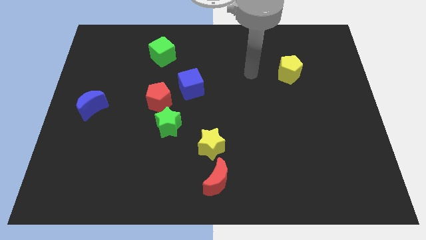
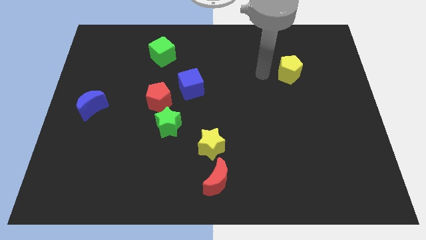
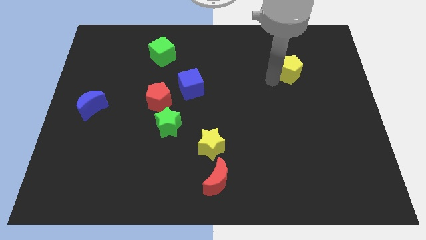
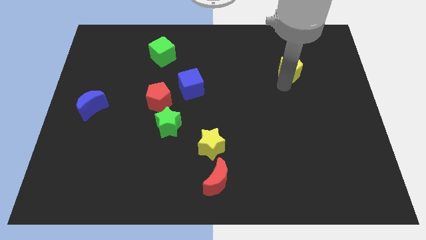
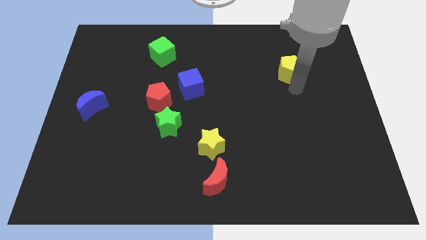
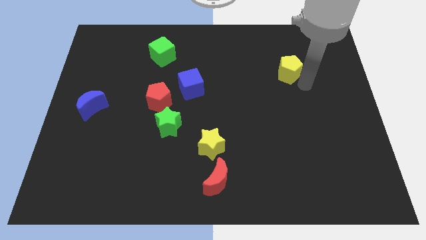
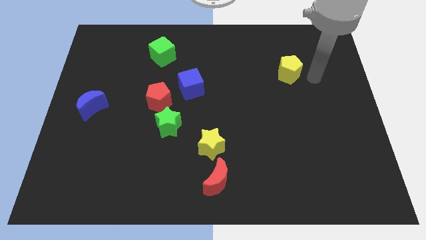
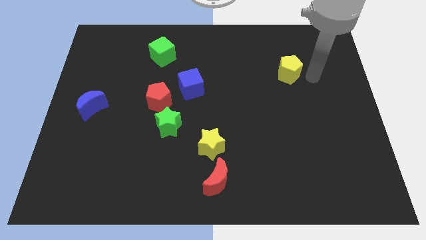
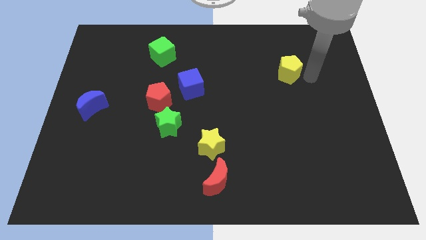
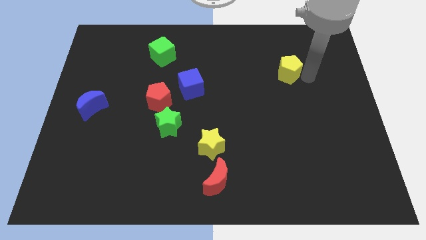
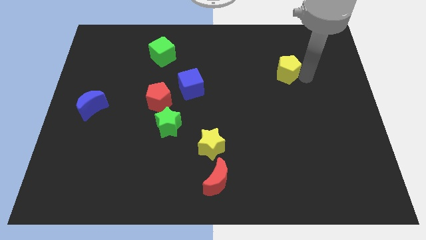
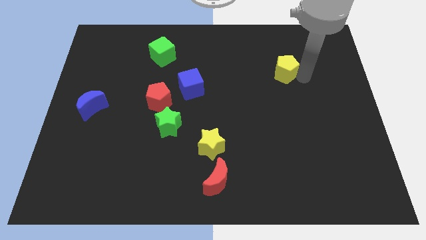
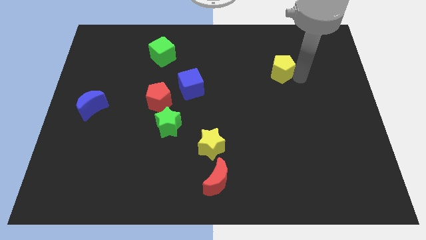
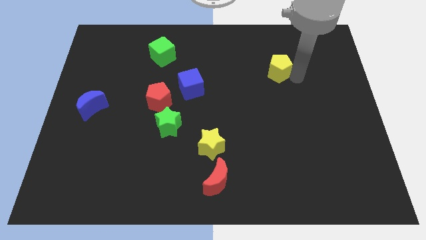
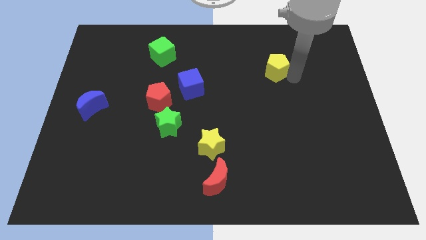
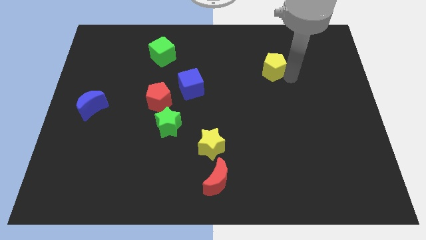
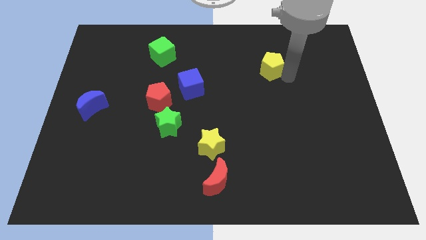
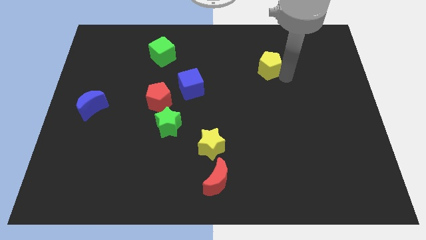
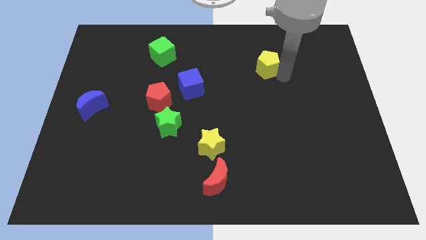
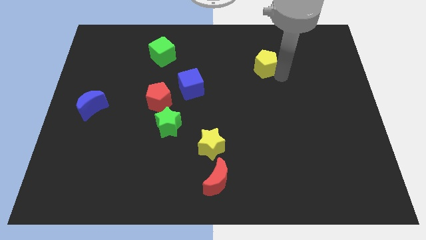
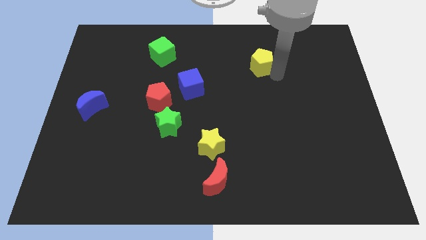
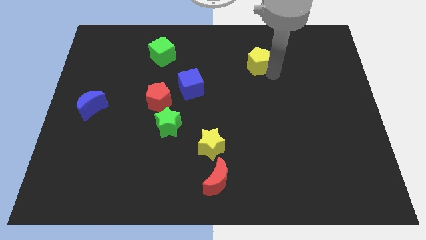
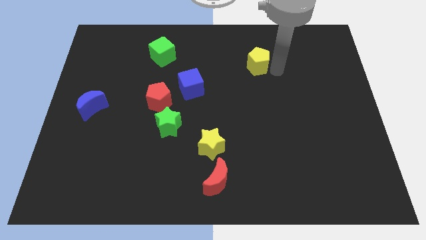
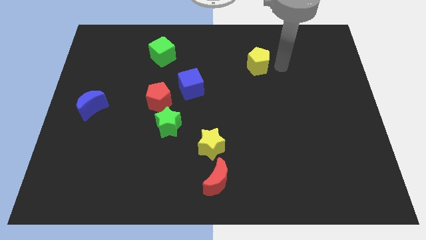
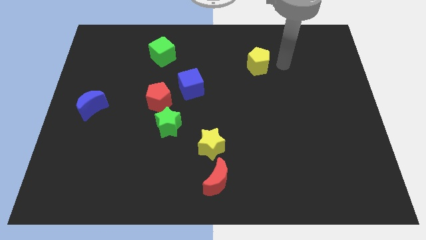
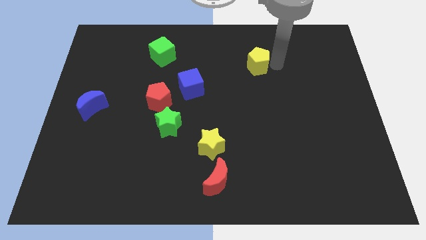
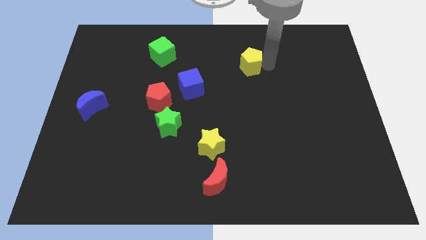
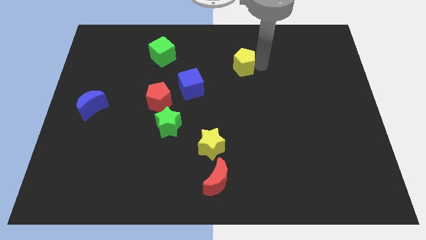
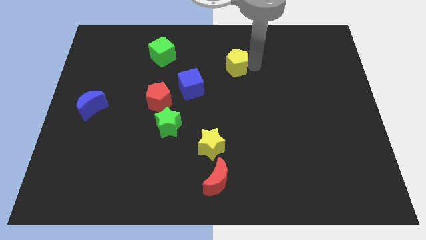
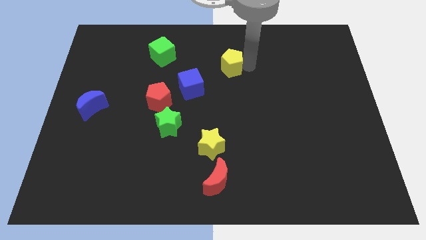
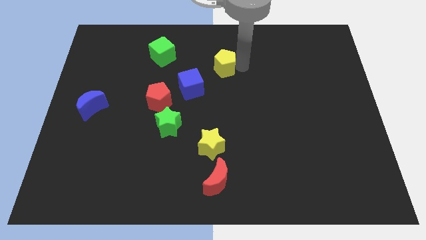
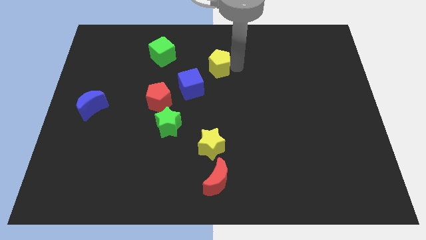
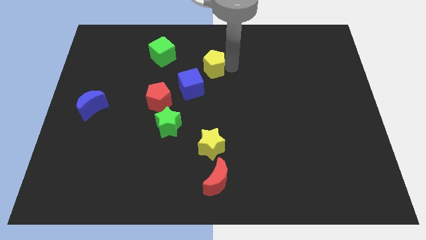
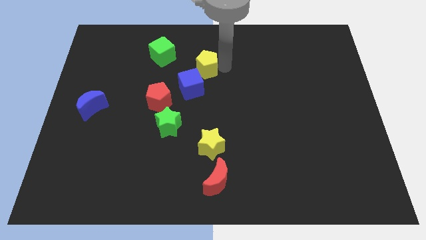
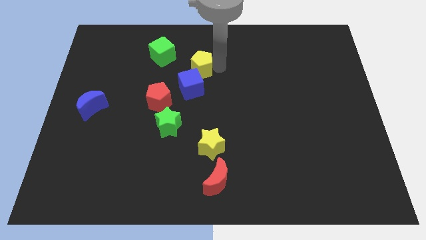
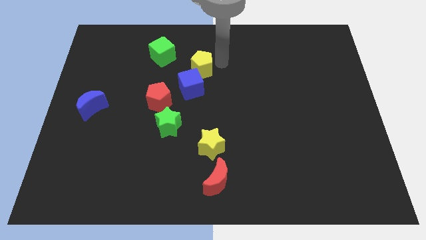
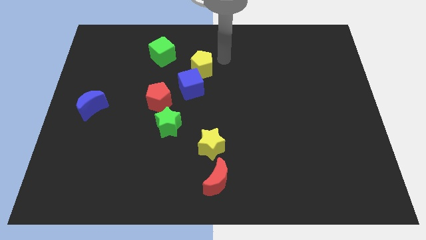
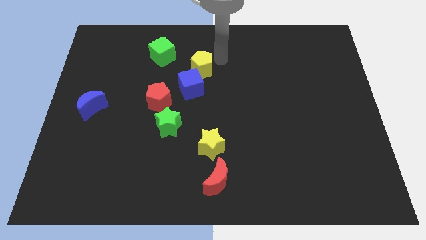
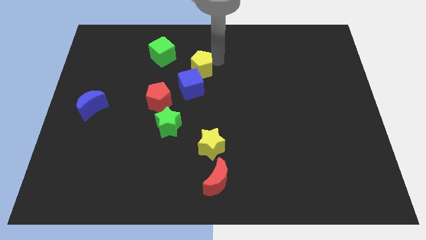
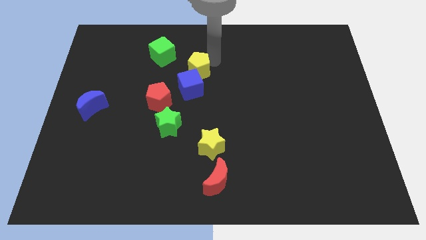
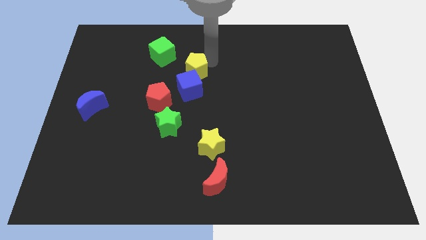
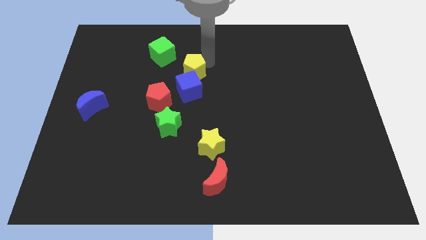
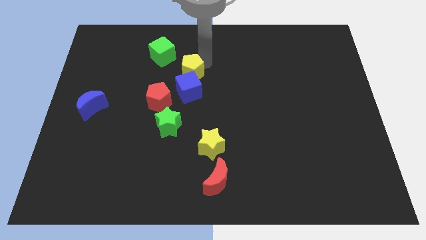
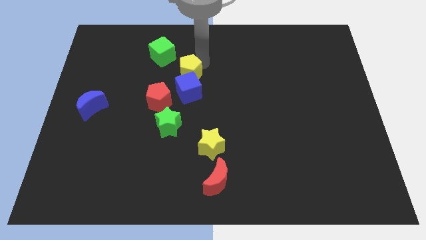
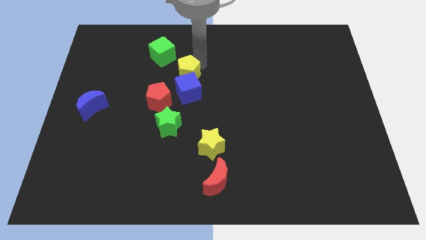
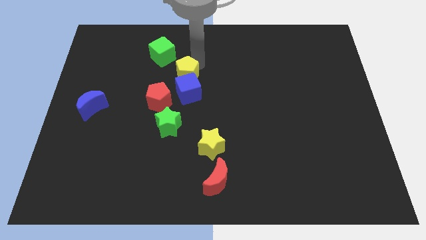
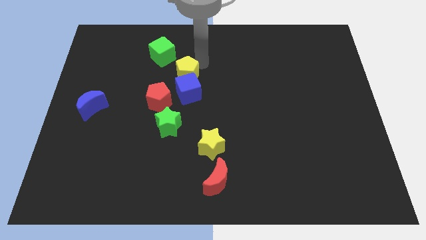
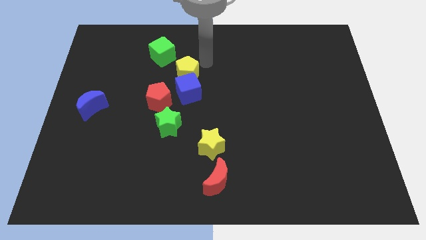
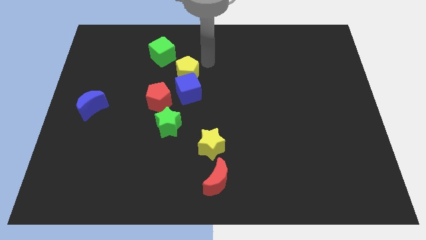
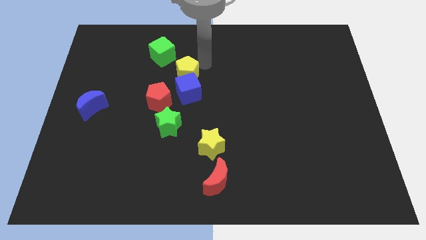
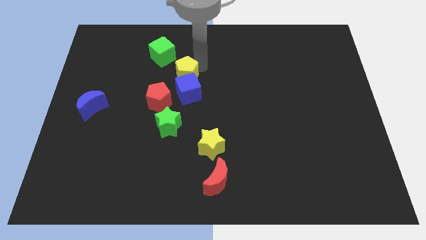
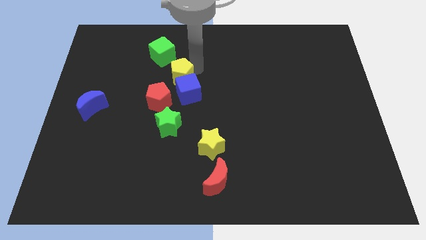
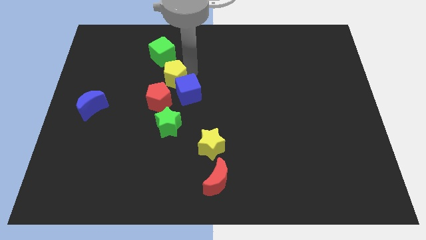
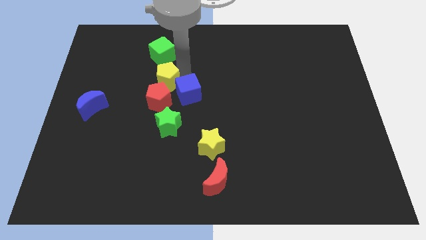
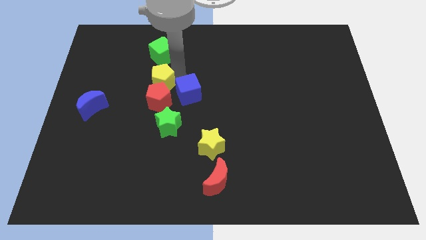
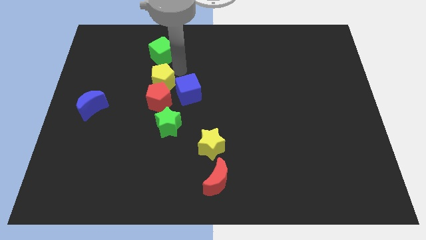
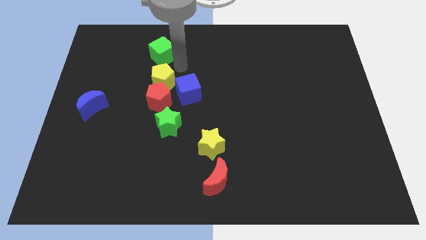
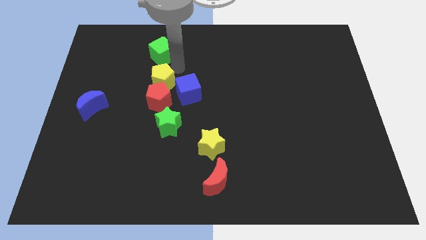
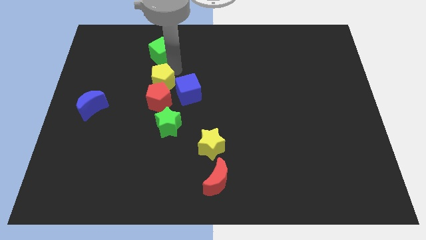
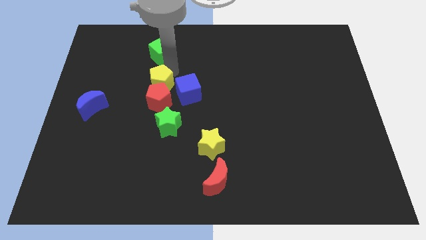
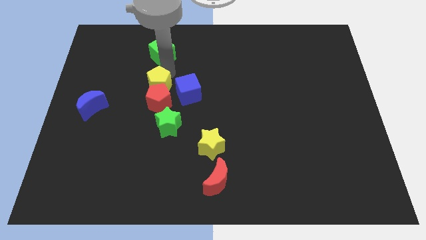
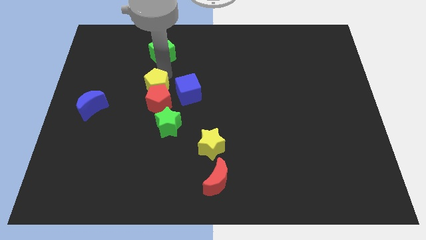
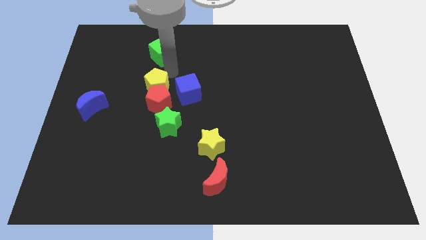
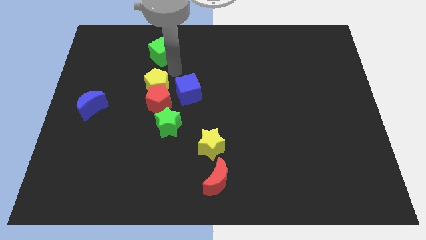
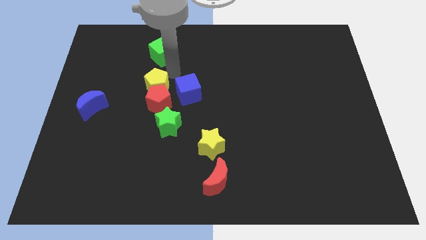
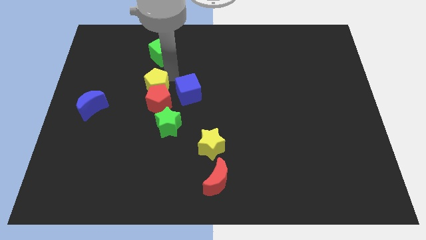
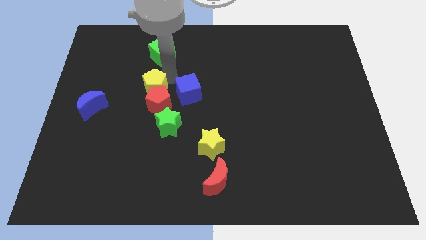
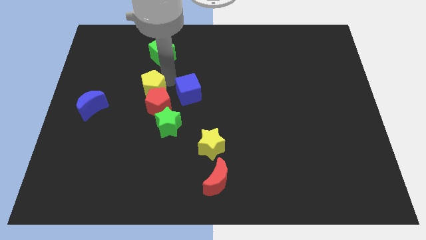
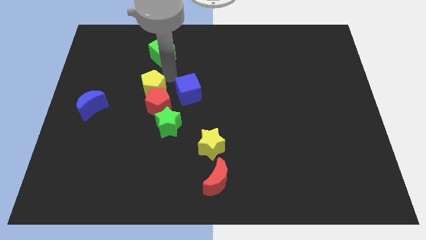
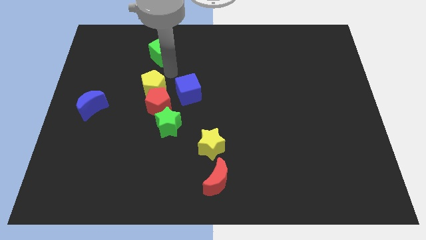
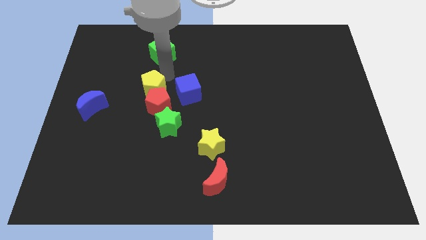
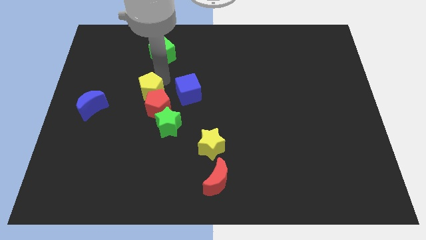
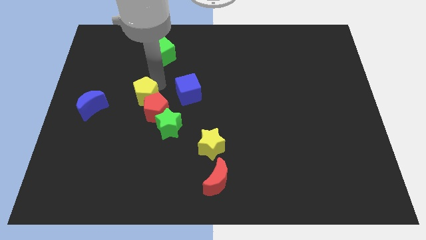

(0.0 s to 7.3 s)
push the yellow pentagon right of the blue moon

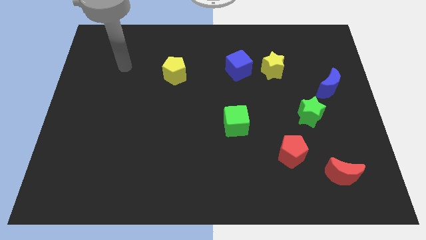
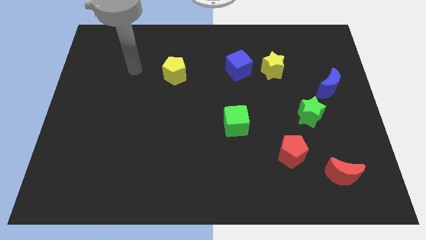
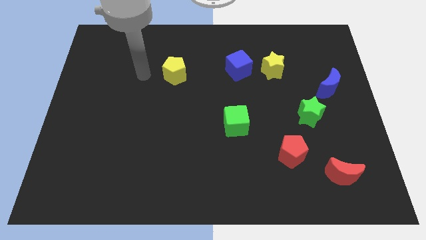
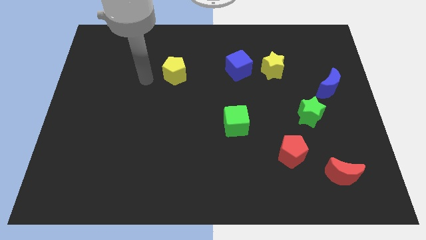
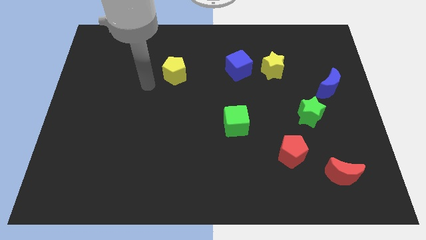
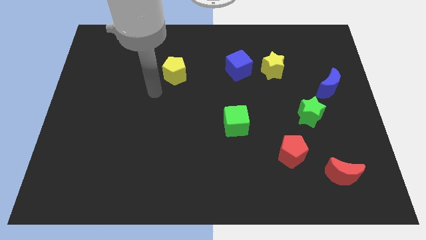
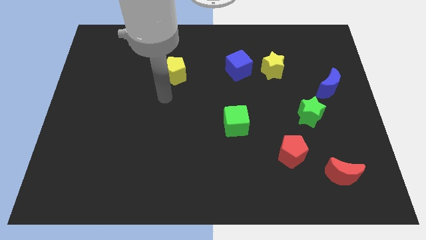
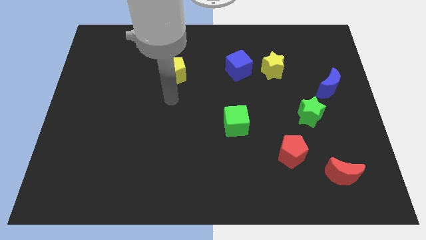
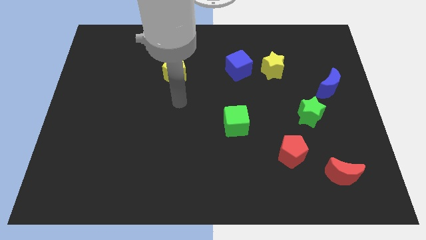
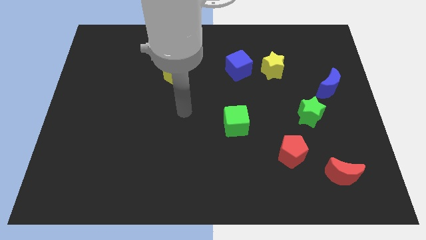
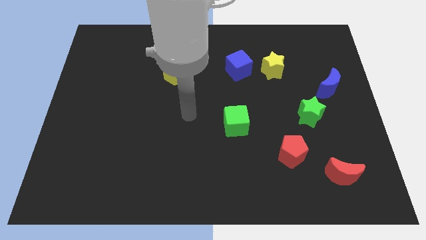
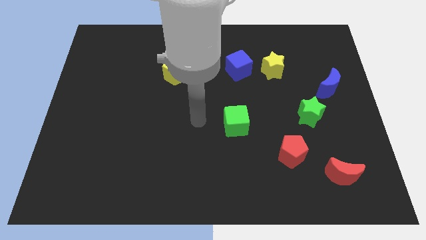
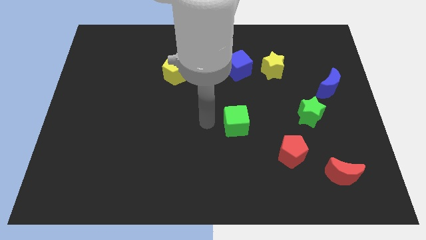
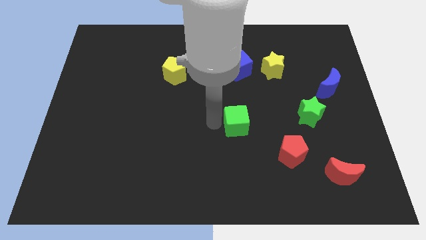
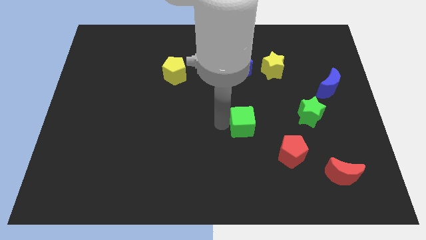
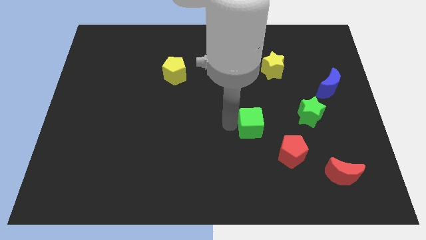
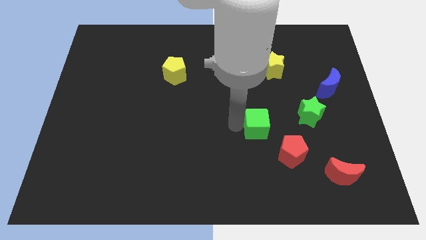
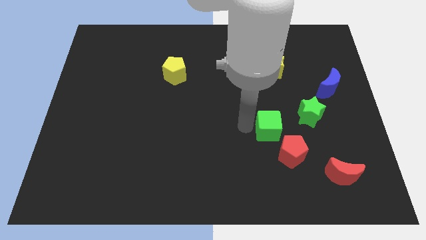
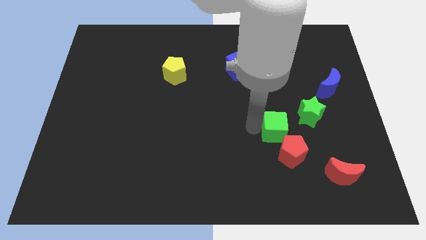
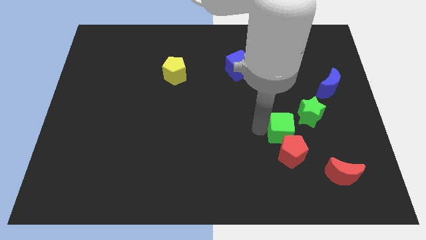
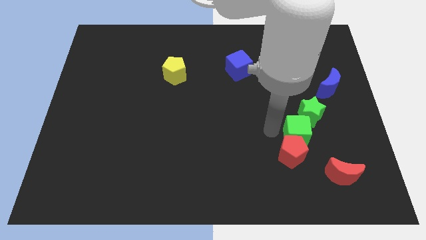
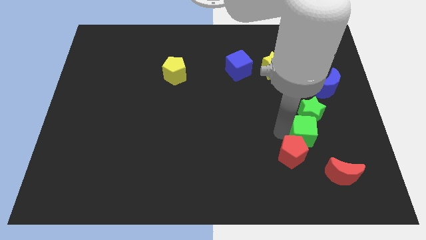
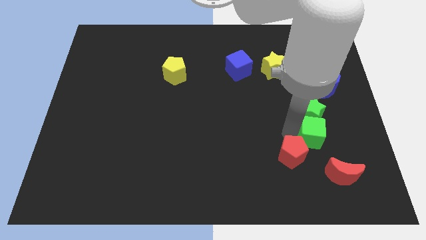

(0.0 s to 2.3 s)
put the green cube to the top side of the red moon
